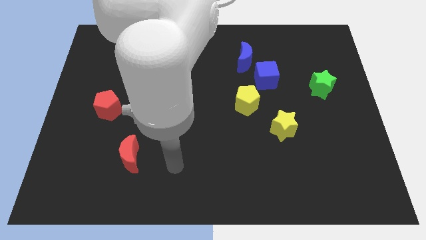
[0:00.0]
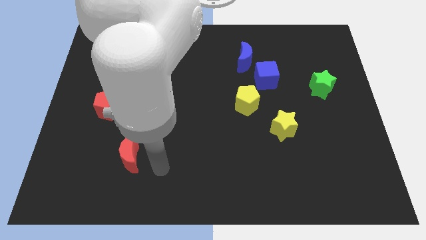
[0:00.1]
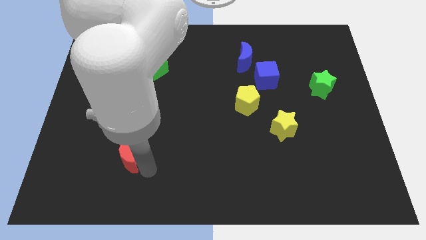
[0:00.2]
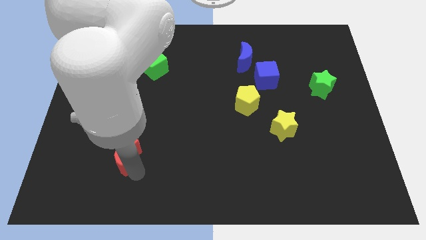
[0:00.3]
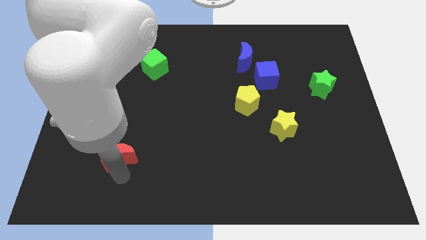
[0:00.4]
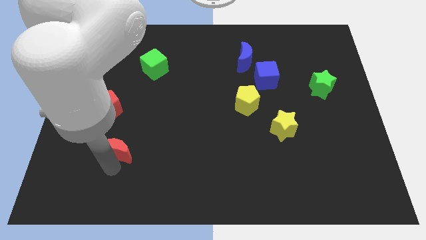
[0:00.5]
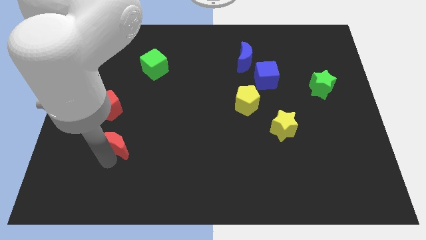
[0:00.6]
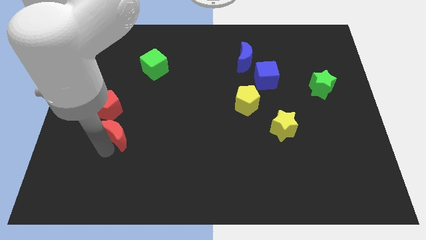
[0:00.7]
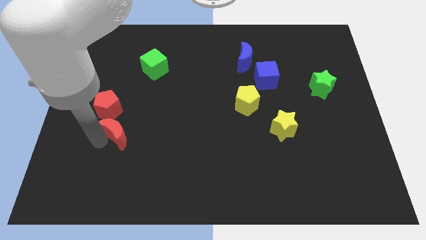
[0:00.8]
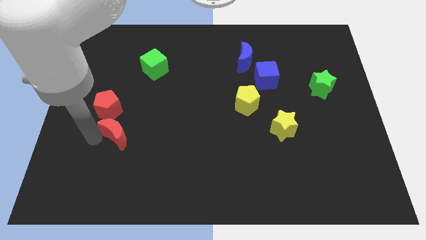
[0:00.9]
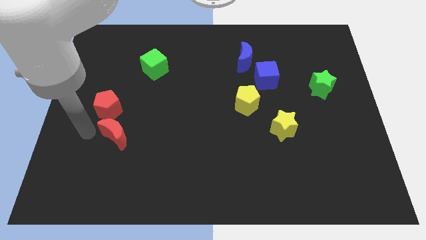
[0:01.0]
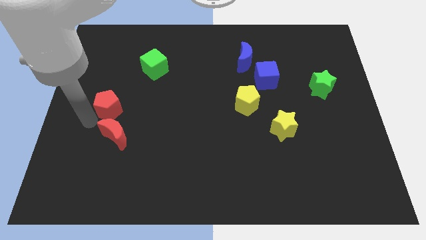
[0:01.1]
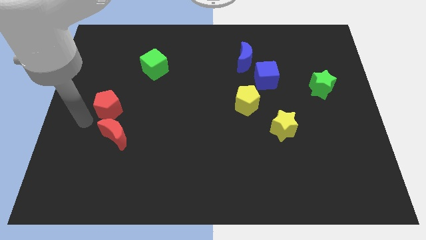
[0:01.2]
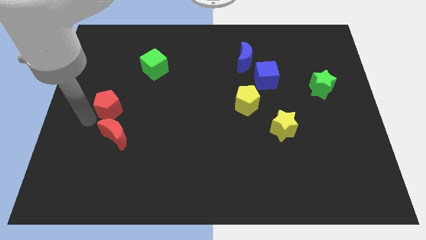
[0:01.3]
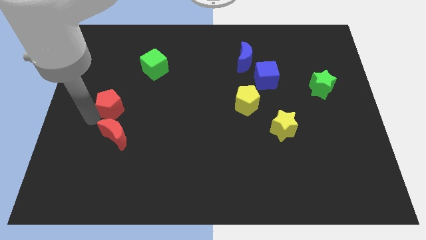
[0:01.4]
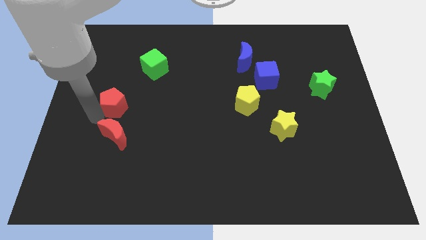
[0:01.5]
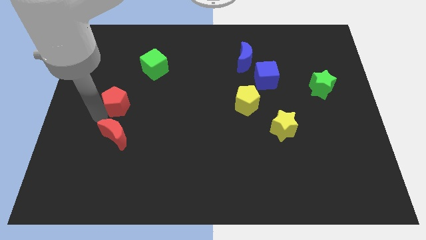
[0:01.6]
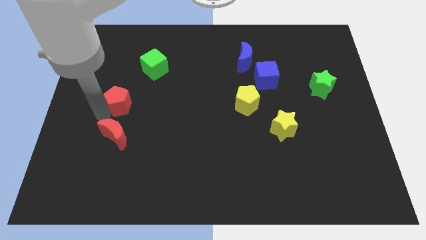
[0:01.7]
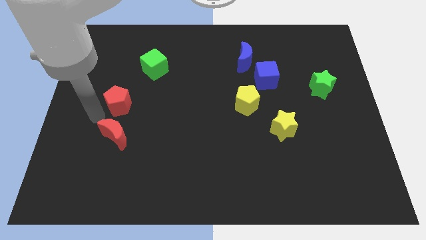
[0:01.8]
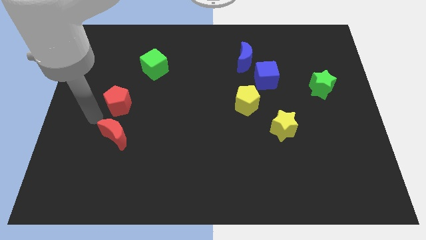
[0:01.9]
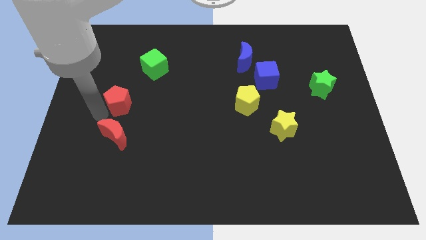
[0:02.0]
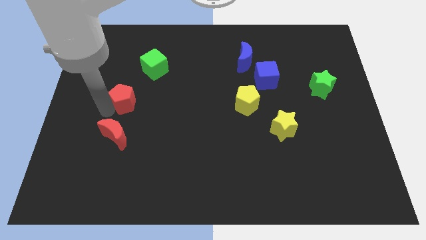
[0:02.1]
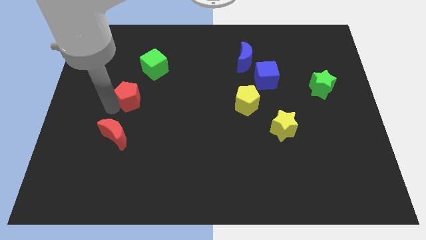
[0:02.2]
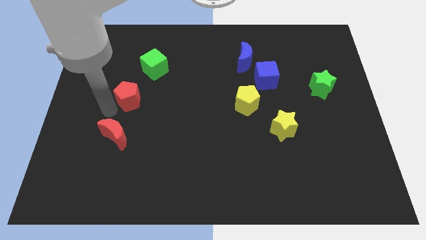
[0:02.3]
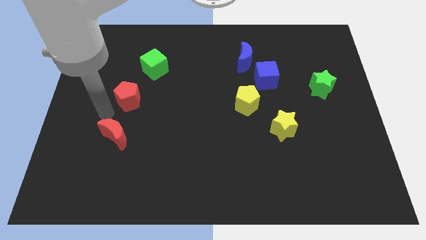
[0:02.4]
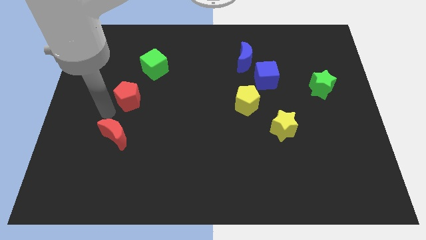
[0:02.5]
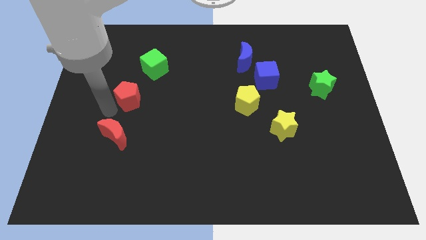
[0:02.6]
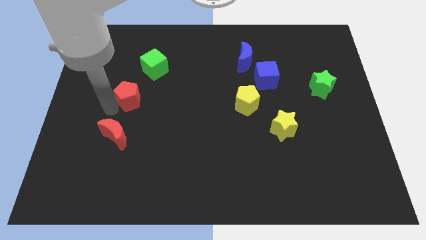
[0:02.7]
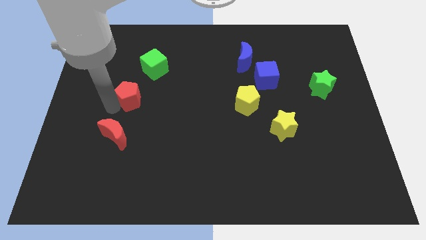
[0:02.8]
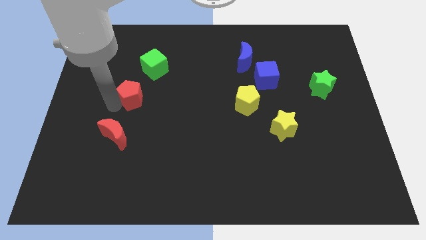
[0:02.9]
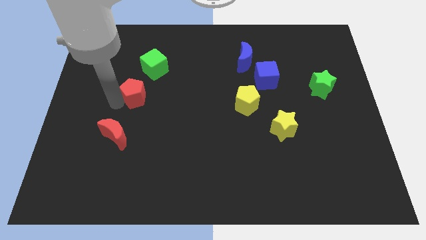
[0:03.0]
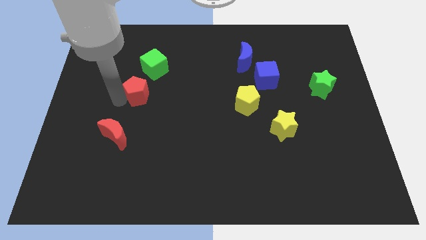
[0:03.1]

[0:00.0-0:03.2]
move the red pentagon a little up and right diagonally

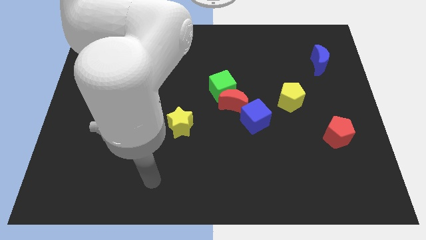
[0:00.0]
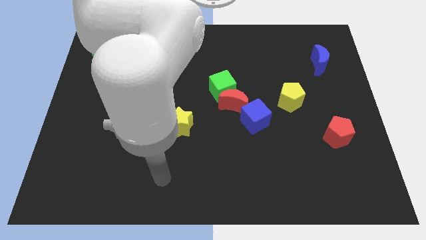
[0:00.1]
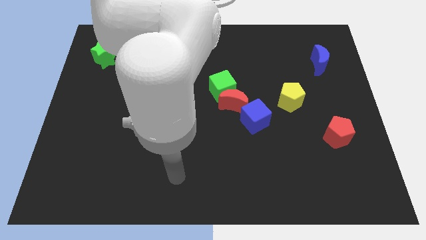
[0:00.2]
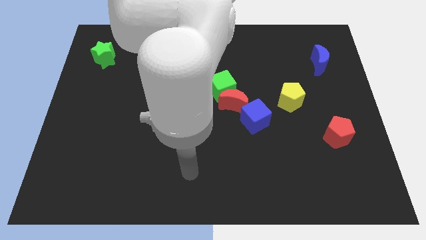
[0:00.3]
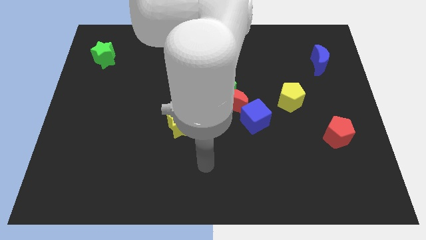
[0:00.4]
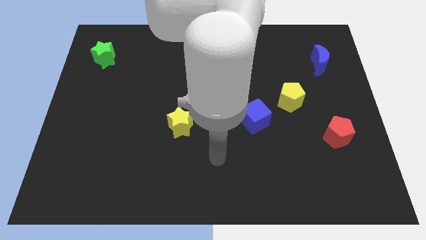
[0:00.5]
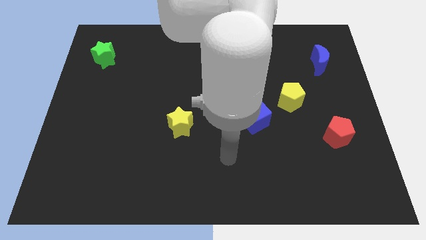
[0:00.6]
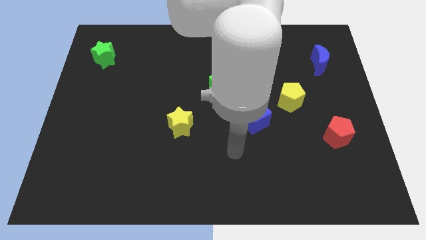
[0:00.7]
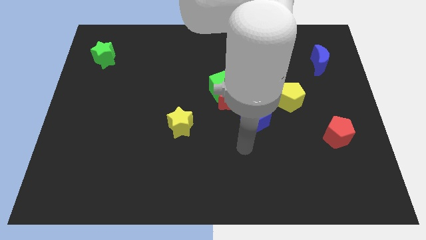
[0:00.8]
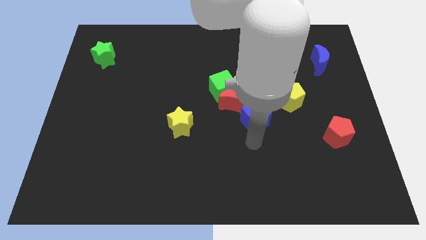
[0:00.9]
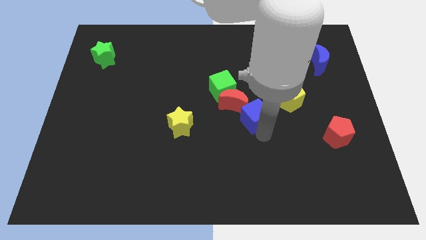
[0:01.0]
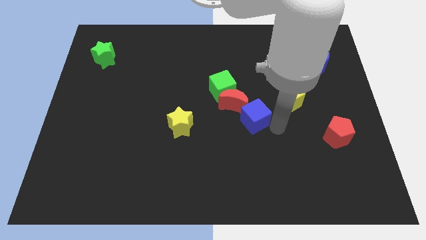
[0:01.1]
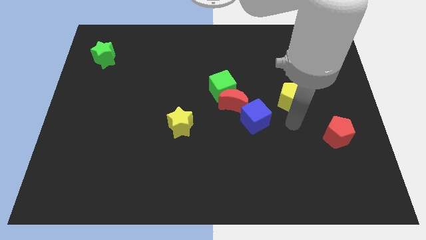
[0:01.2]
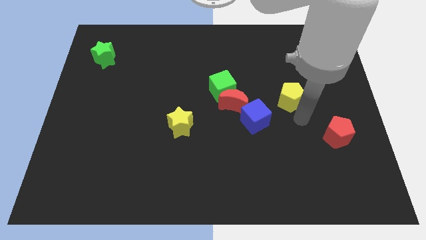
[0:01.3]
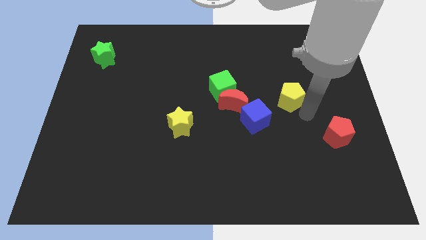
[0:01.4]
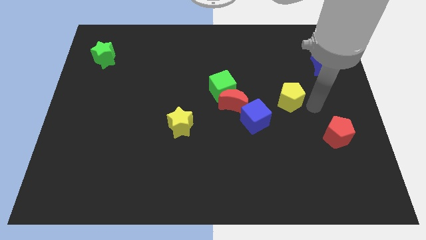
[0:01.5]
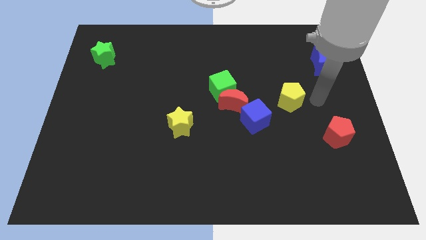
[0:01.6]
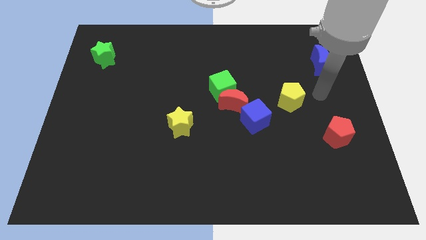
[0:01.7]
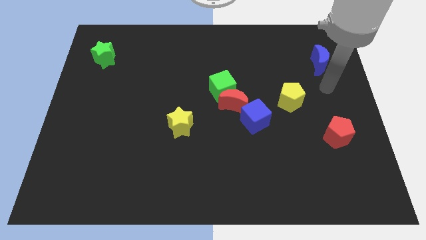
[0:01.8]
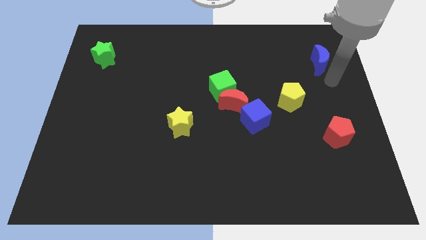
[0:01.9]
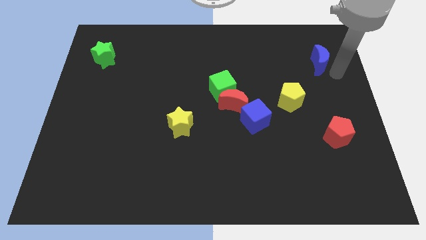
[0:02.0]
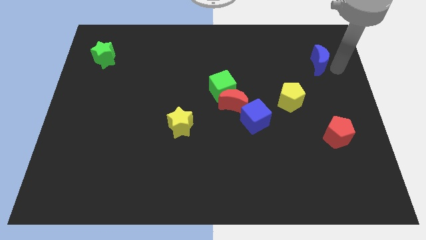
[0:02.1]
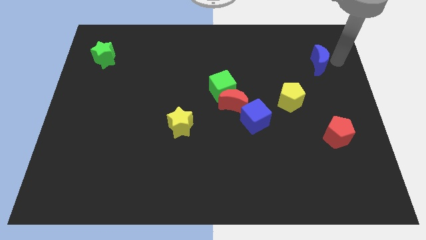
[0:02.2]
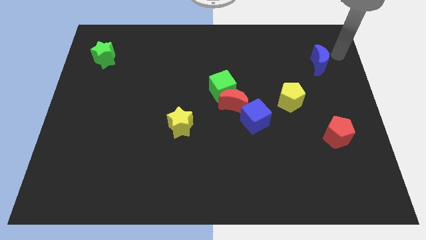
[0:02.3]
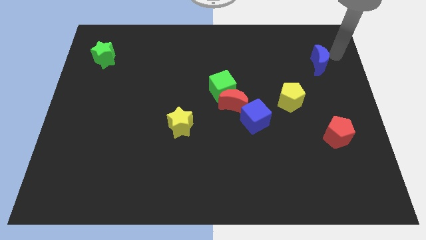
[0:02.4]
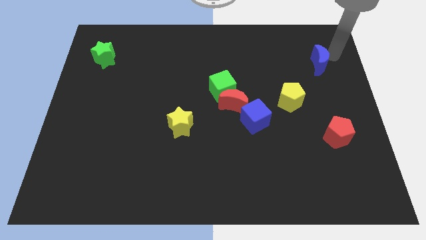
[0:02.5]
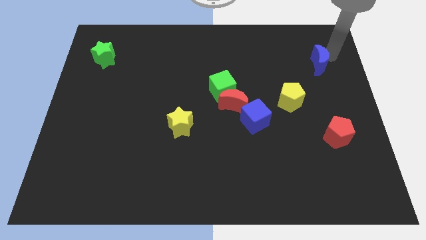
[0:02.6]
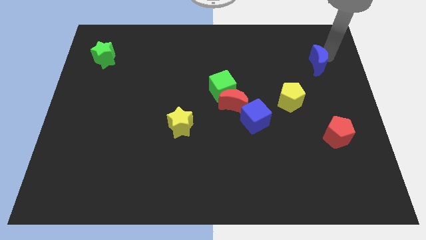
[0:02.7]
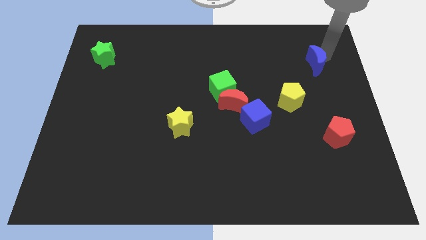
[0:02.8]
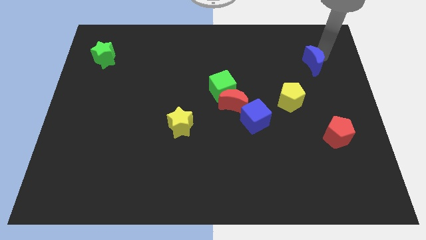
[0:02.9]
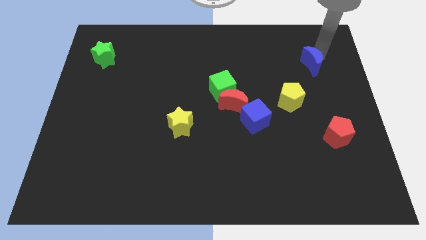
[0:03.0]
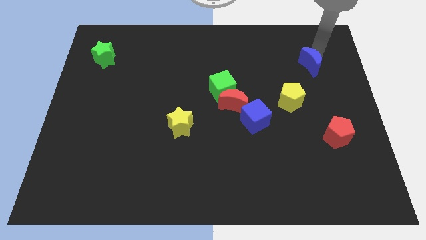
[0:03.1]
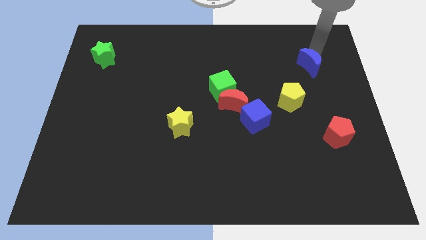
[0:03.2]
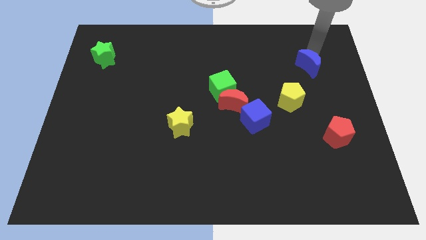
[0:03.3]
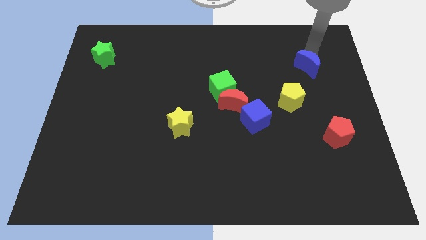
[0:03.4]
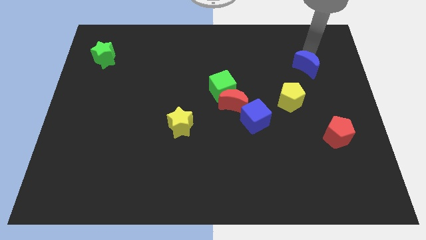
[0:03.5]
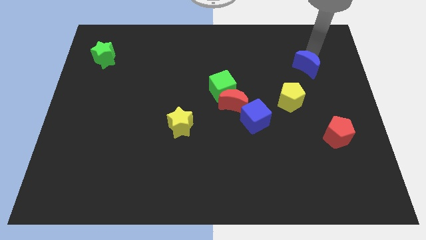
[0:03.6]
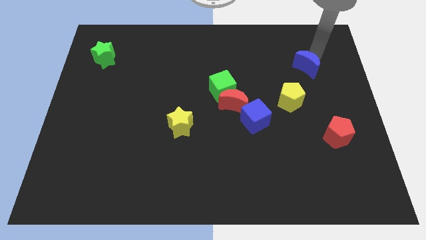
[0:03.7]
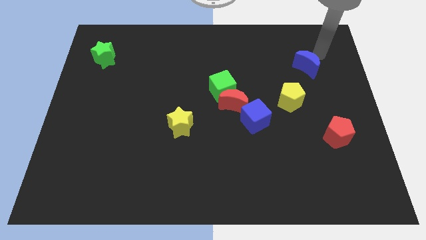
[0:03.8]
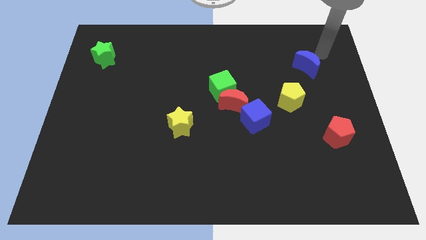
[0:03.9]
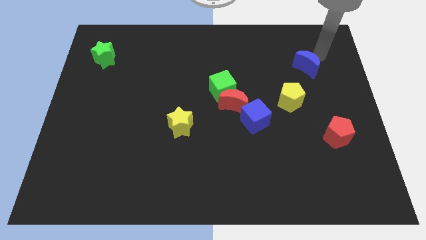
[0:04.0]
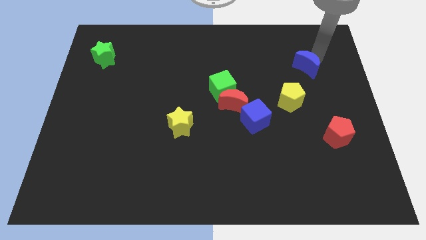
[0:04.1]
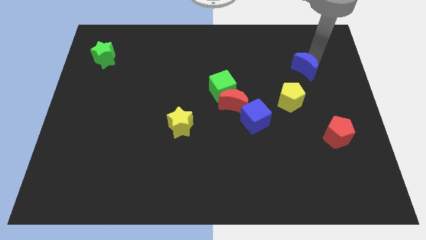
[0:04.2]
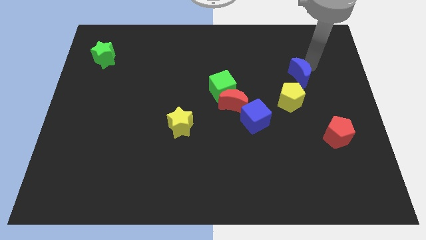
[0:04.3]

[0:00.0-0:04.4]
move the blue moon diagonally down and left somewhat

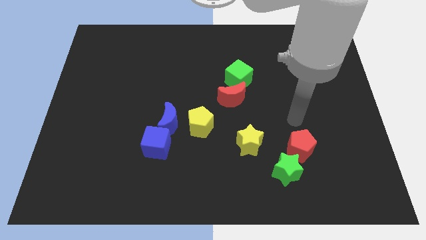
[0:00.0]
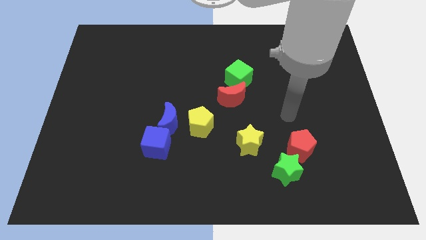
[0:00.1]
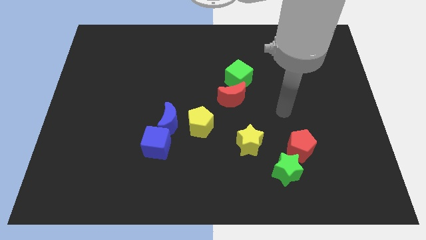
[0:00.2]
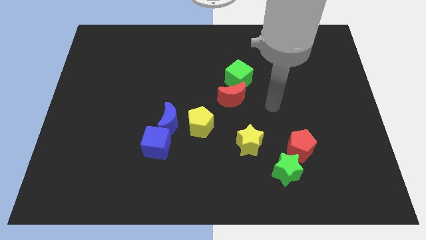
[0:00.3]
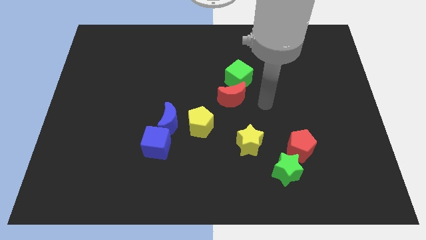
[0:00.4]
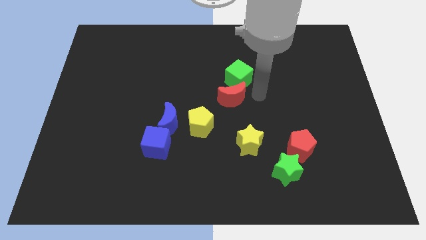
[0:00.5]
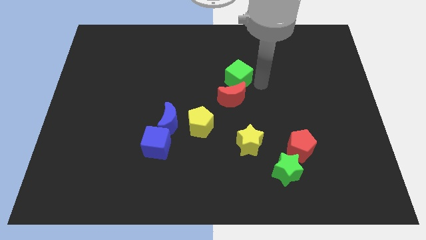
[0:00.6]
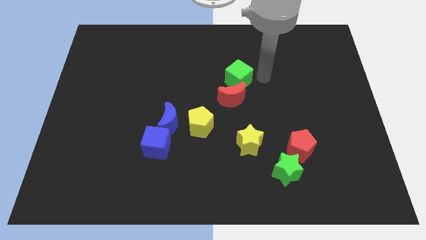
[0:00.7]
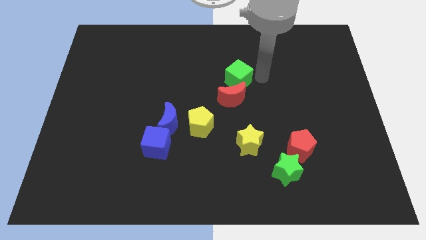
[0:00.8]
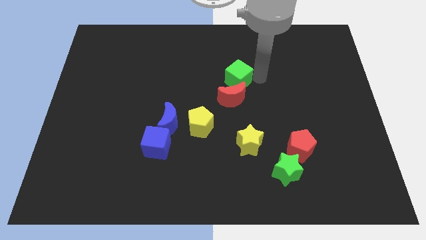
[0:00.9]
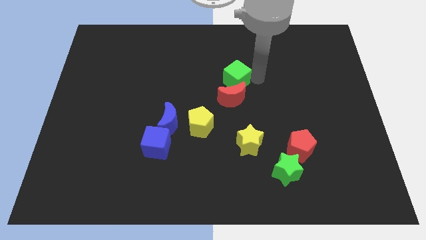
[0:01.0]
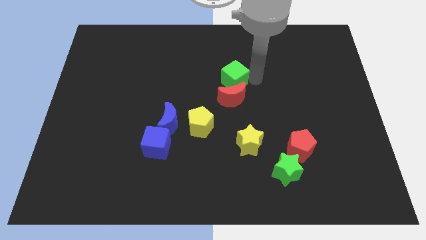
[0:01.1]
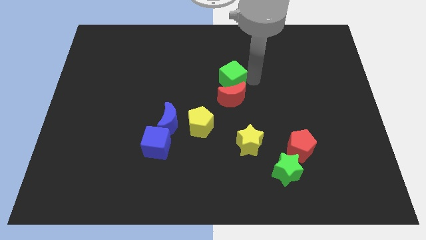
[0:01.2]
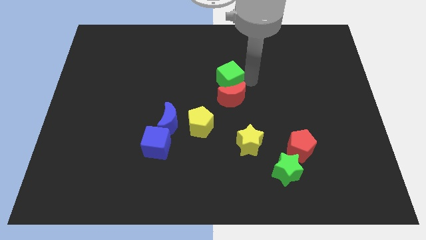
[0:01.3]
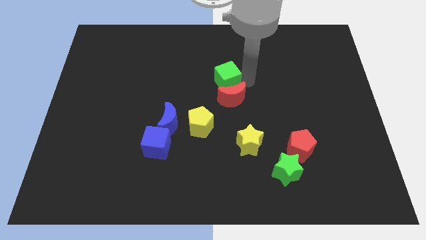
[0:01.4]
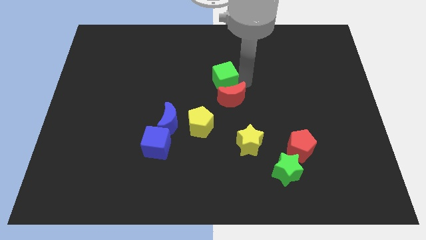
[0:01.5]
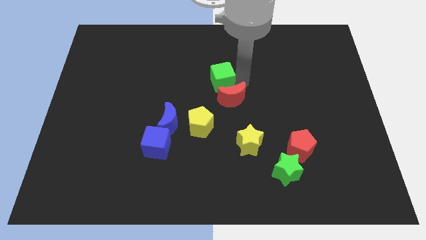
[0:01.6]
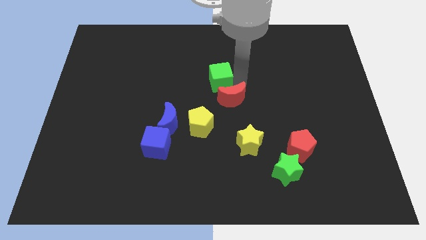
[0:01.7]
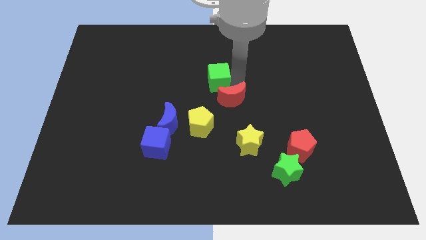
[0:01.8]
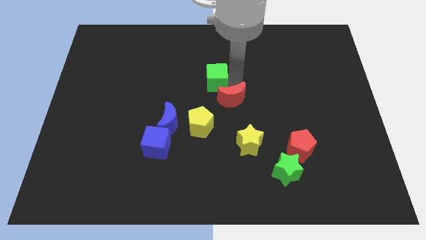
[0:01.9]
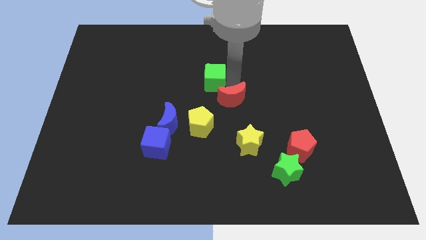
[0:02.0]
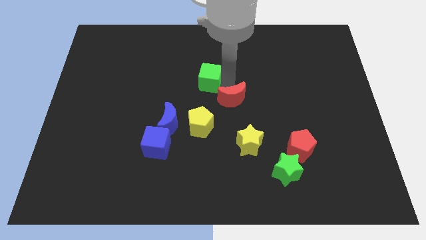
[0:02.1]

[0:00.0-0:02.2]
slightly push the green cube left
